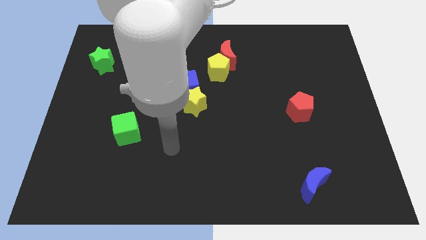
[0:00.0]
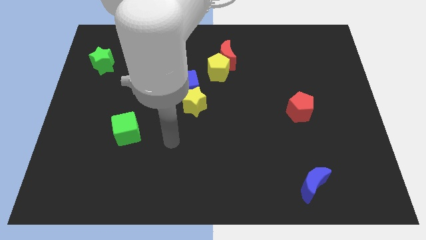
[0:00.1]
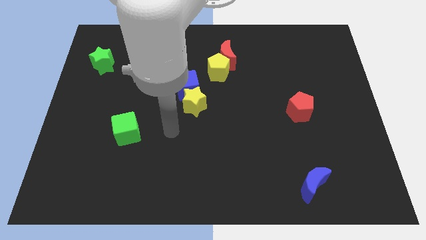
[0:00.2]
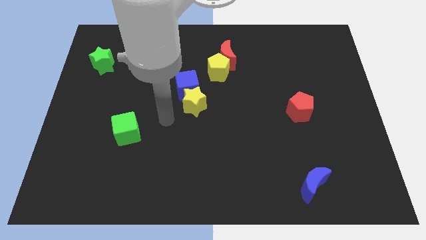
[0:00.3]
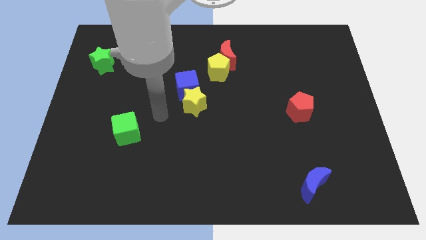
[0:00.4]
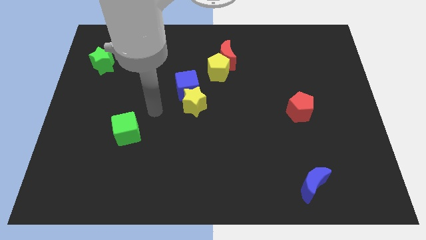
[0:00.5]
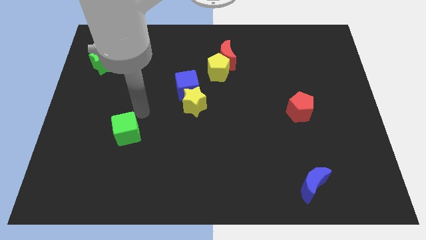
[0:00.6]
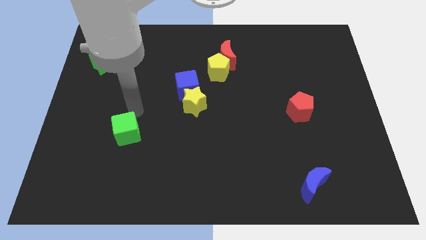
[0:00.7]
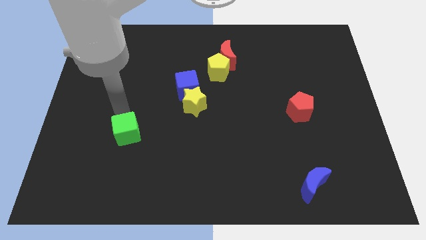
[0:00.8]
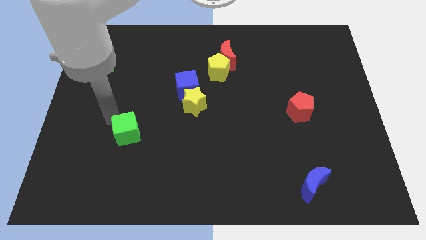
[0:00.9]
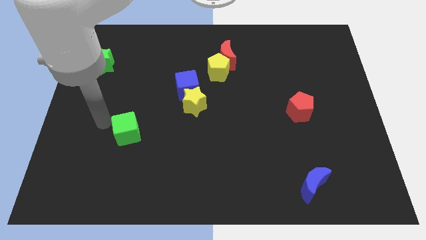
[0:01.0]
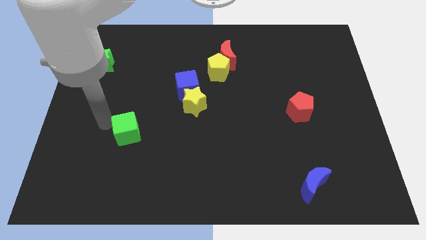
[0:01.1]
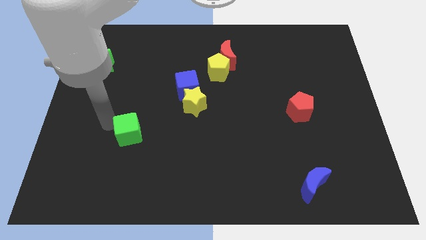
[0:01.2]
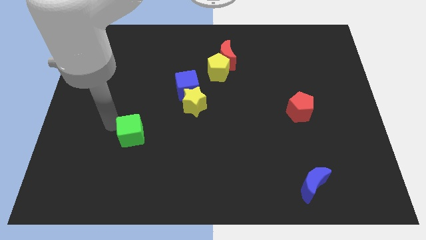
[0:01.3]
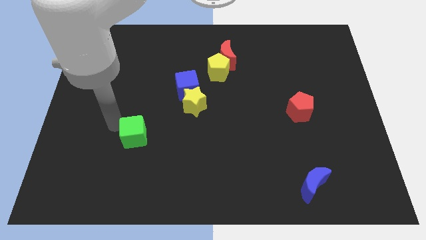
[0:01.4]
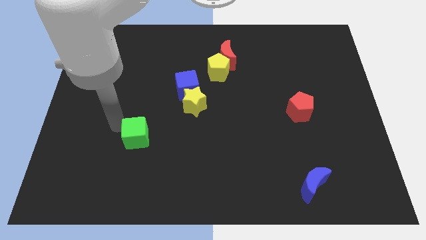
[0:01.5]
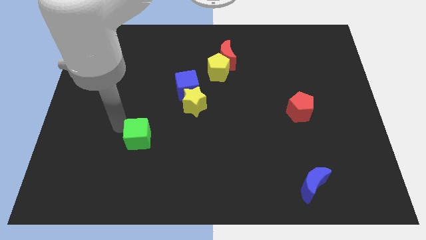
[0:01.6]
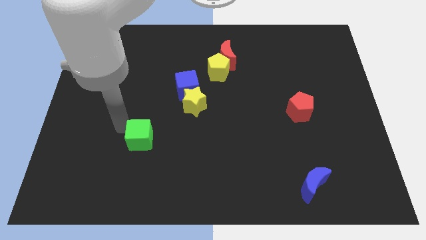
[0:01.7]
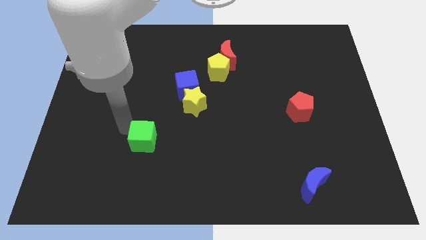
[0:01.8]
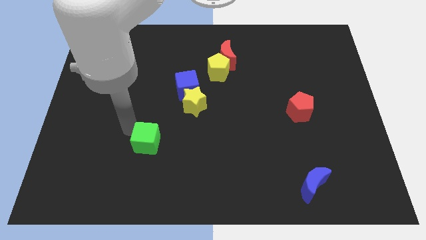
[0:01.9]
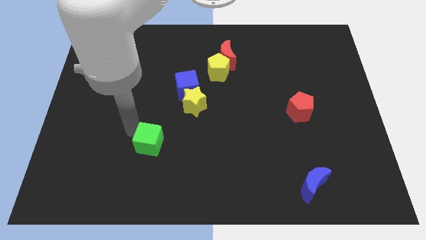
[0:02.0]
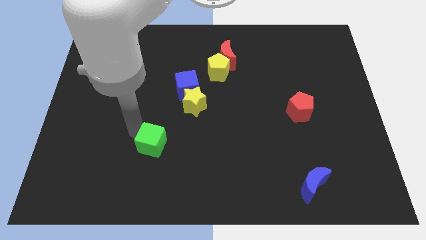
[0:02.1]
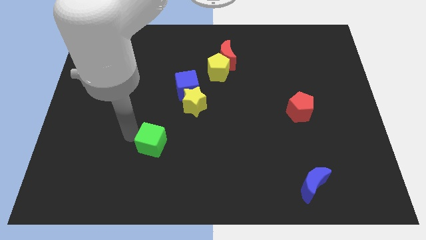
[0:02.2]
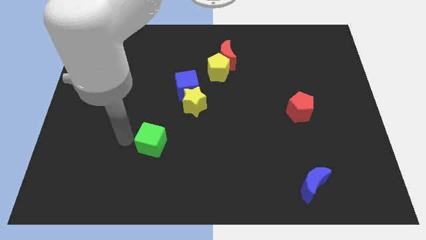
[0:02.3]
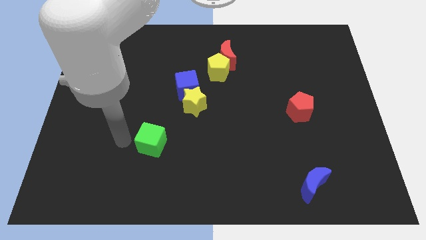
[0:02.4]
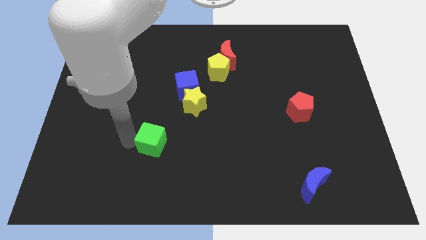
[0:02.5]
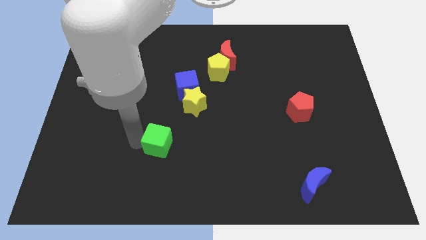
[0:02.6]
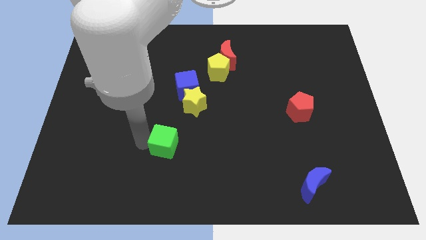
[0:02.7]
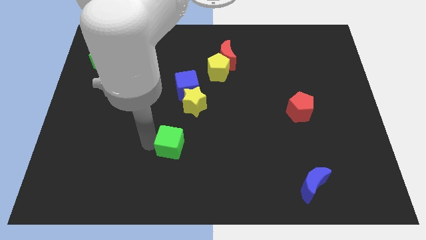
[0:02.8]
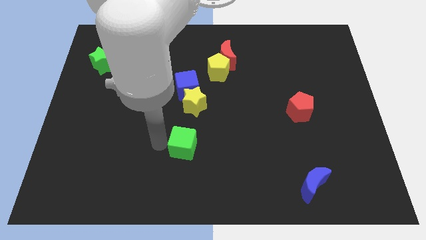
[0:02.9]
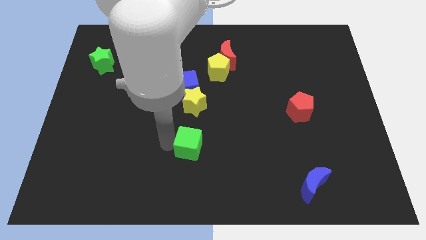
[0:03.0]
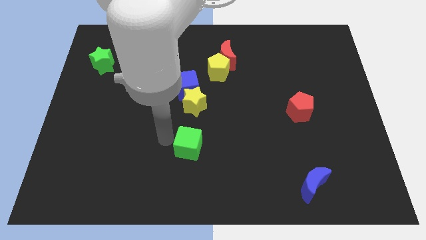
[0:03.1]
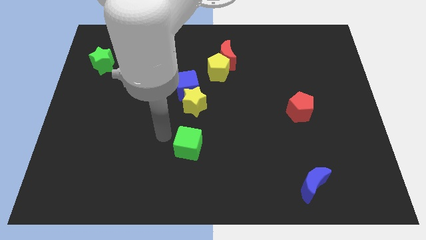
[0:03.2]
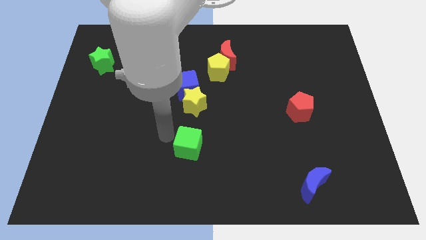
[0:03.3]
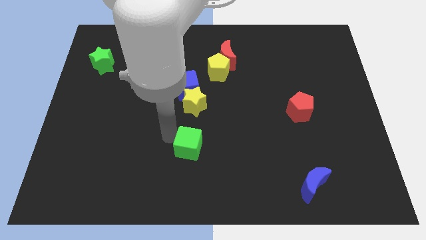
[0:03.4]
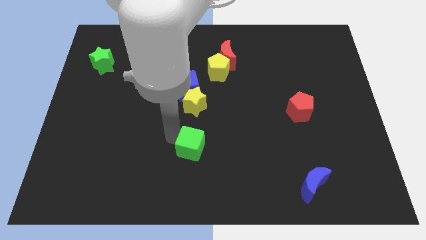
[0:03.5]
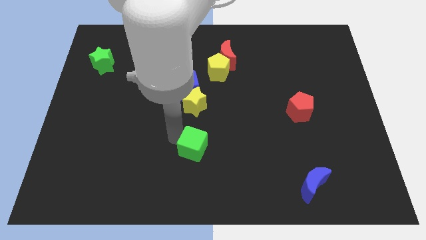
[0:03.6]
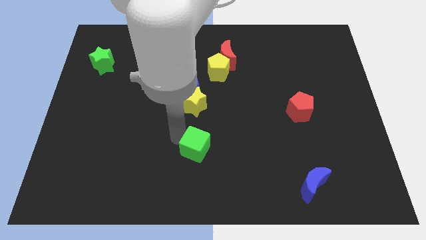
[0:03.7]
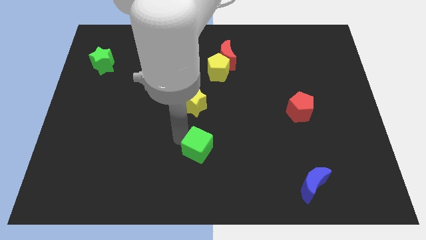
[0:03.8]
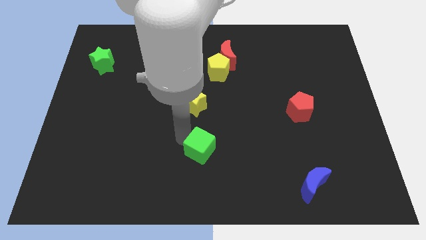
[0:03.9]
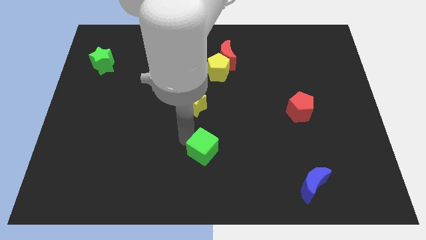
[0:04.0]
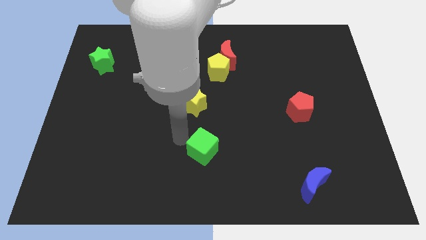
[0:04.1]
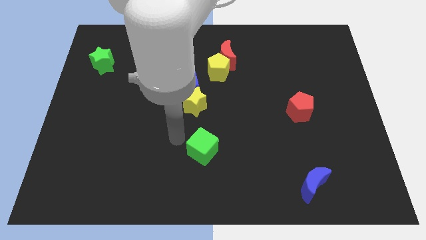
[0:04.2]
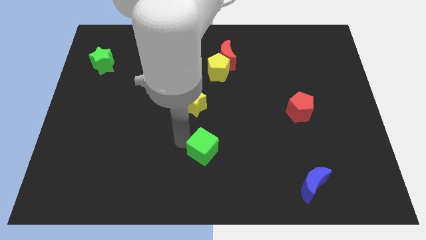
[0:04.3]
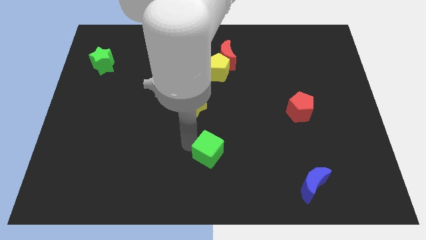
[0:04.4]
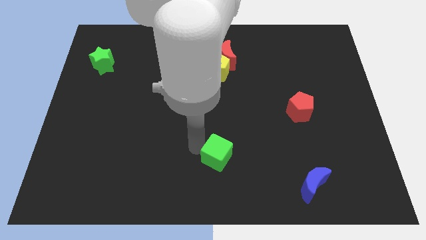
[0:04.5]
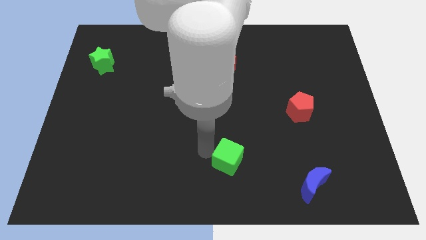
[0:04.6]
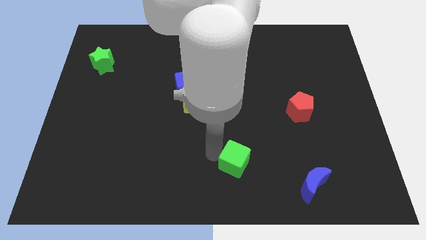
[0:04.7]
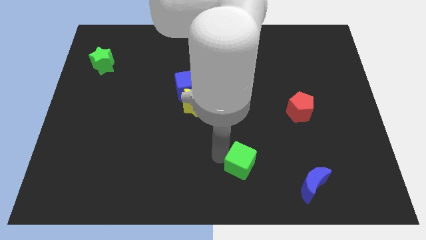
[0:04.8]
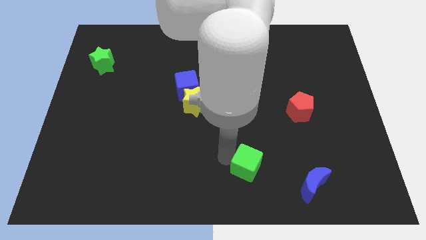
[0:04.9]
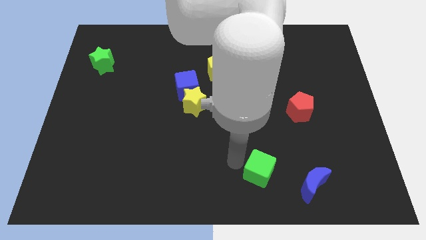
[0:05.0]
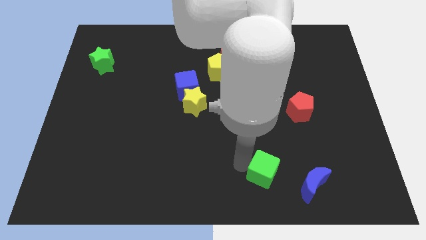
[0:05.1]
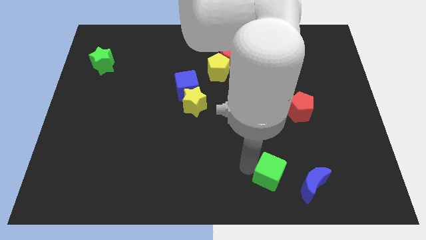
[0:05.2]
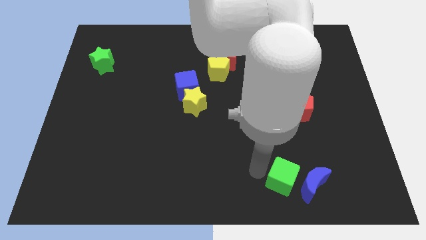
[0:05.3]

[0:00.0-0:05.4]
move the green cube towards the blue moon

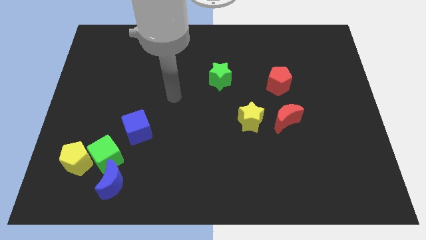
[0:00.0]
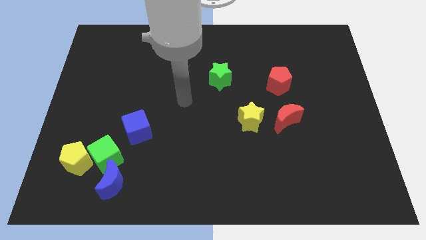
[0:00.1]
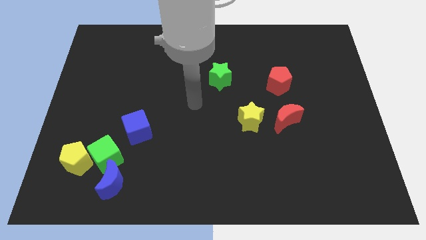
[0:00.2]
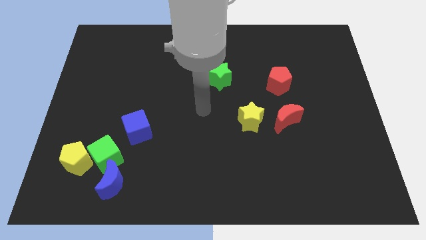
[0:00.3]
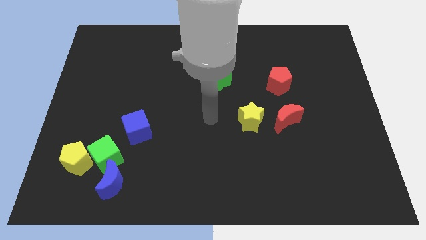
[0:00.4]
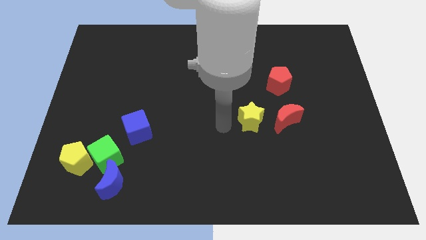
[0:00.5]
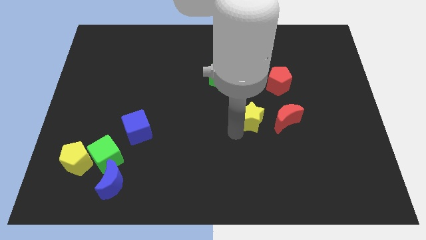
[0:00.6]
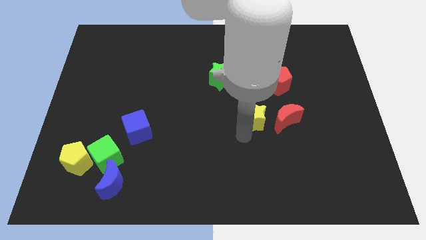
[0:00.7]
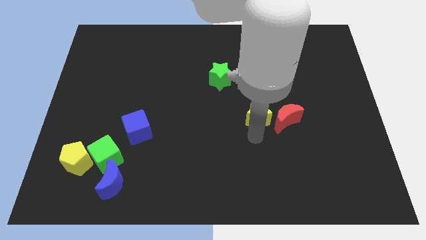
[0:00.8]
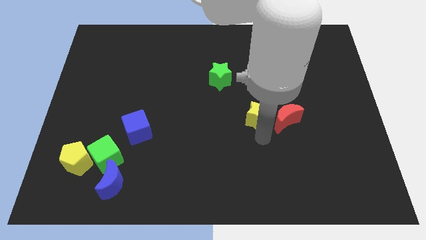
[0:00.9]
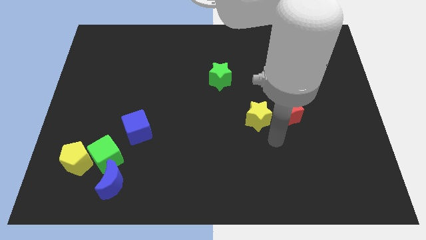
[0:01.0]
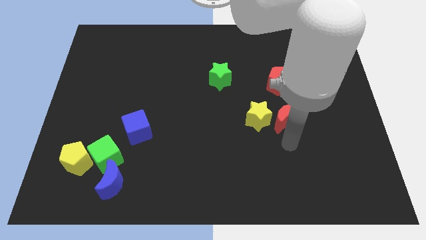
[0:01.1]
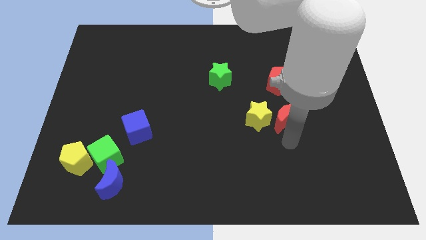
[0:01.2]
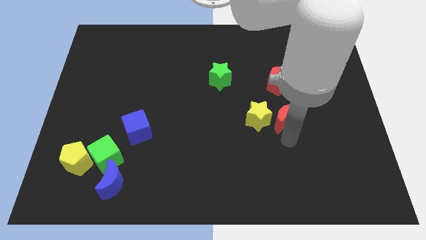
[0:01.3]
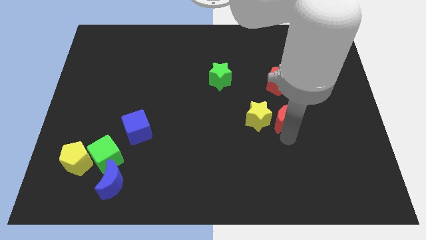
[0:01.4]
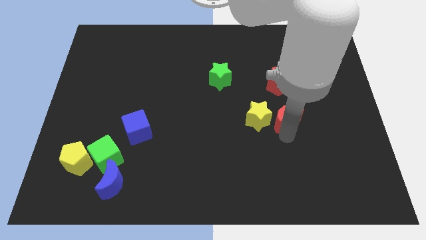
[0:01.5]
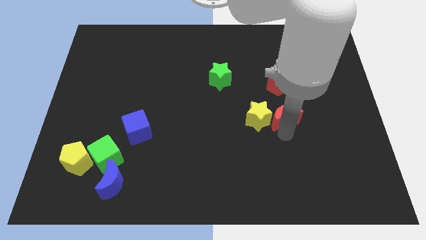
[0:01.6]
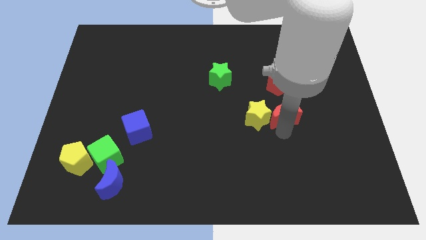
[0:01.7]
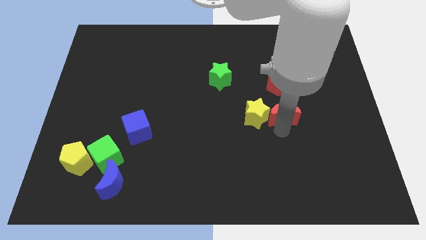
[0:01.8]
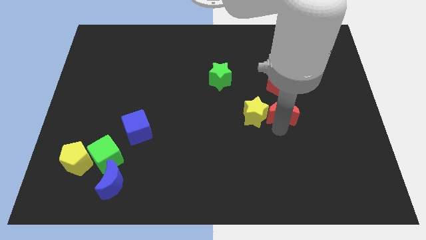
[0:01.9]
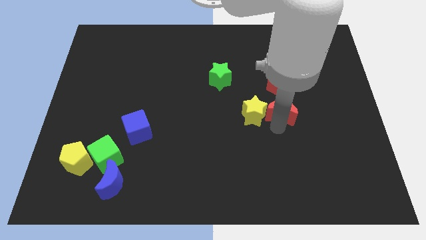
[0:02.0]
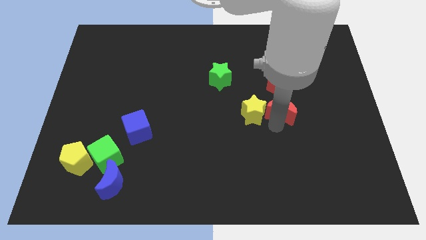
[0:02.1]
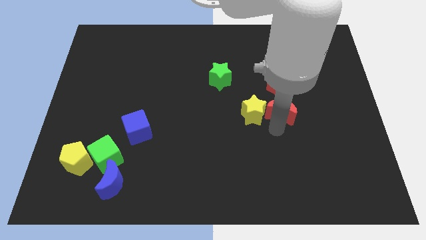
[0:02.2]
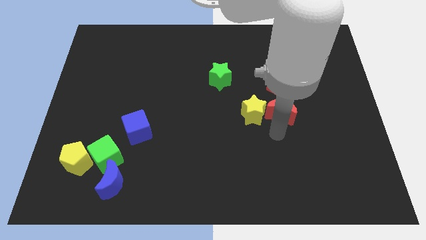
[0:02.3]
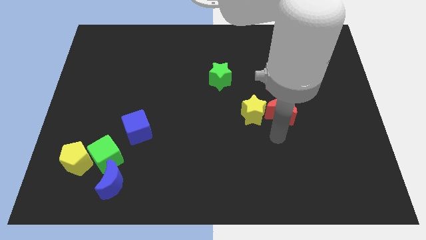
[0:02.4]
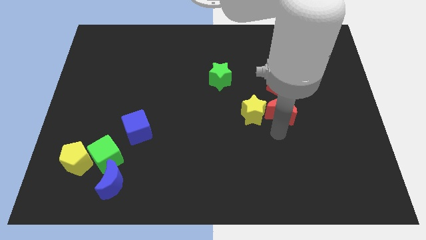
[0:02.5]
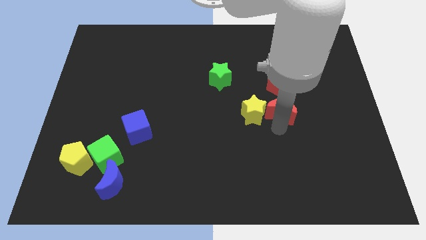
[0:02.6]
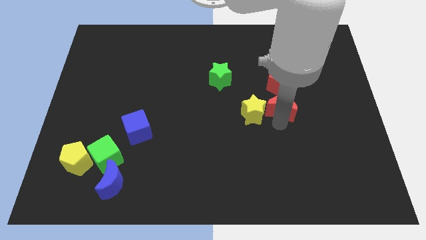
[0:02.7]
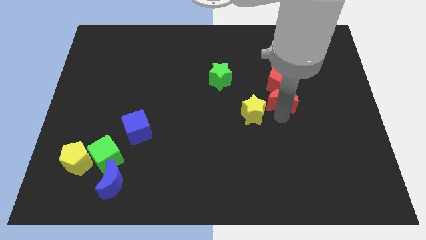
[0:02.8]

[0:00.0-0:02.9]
move the red moon to the red pentagon
